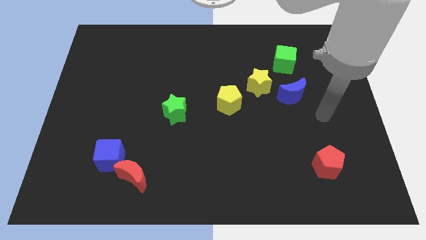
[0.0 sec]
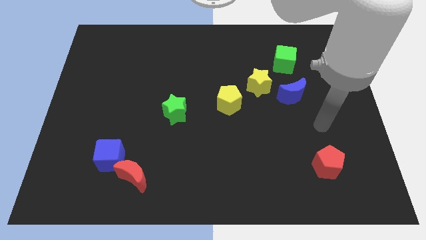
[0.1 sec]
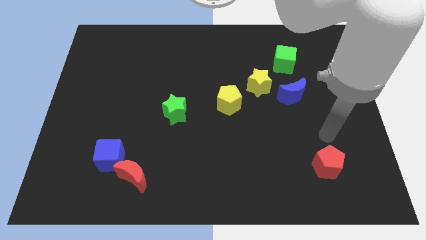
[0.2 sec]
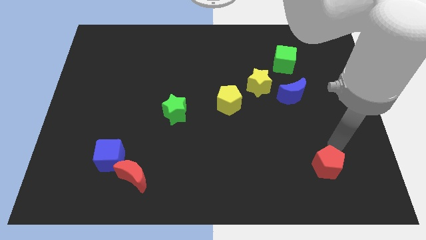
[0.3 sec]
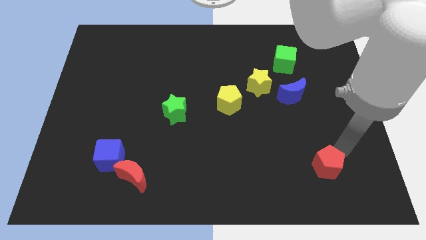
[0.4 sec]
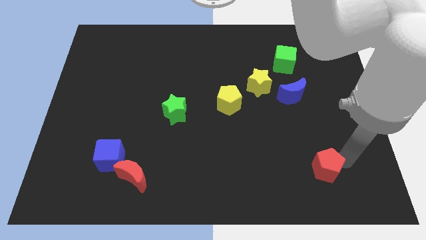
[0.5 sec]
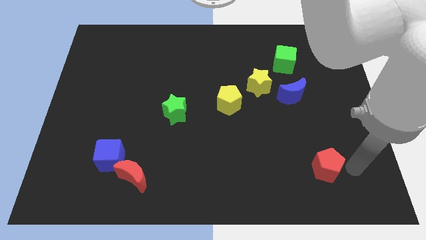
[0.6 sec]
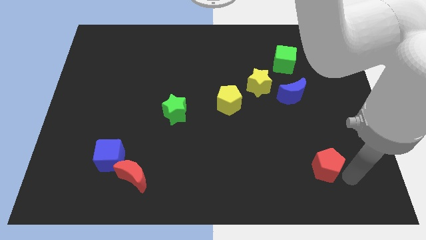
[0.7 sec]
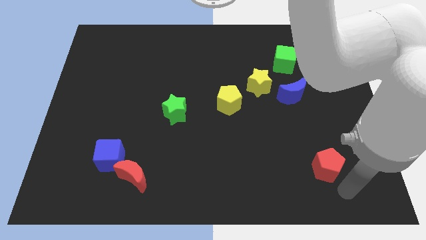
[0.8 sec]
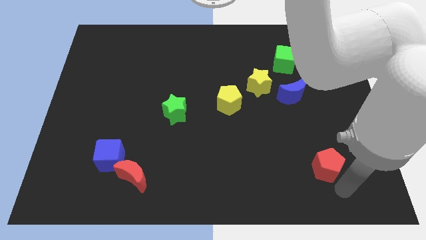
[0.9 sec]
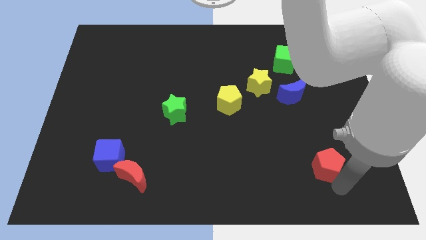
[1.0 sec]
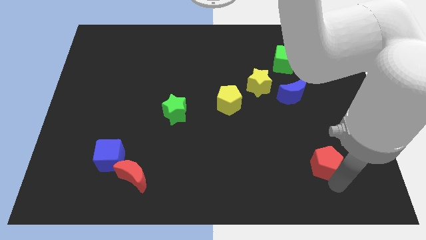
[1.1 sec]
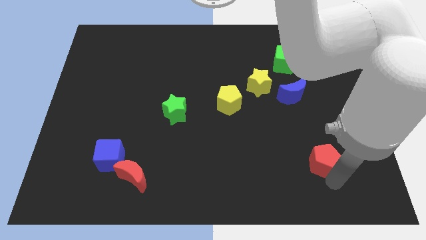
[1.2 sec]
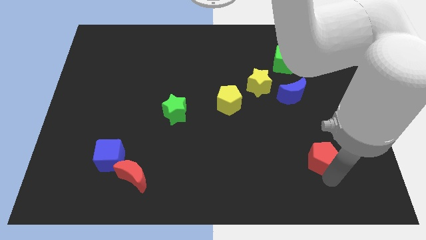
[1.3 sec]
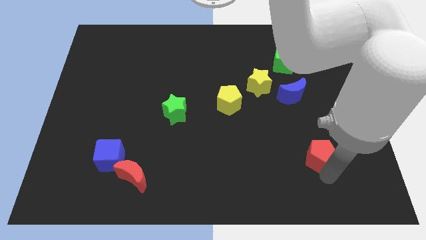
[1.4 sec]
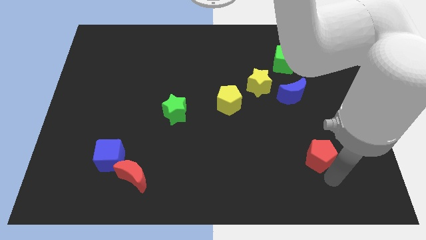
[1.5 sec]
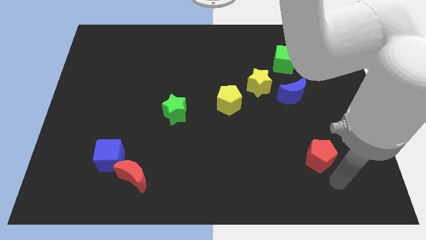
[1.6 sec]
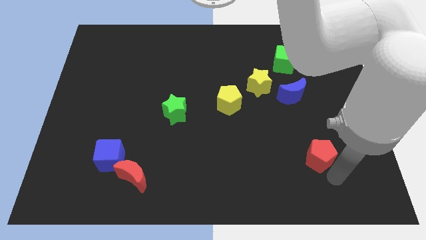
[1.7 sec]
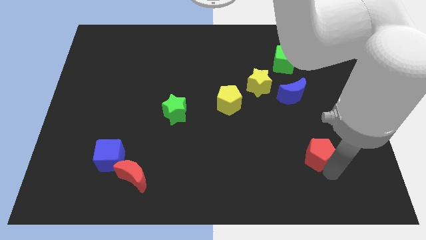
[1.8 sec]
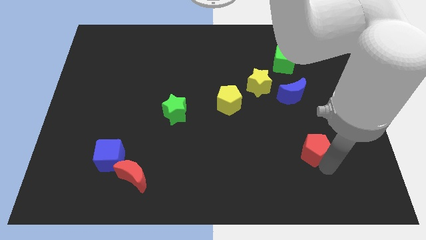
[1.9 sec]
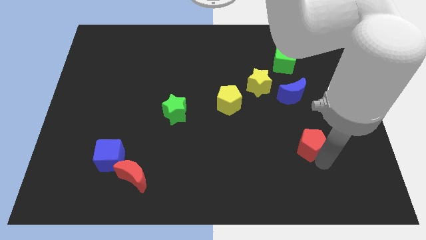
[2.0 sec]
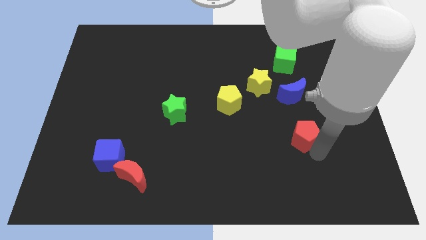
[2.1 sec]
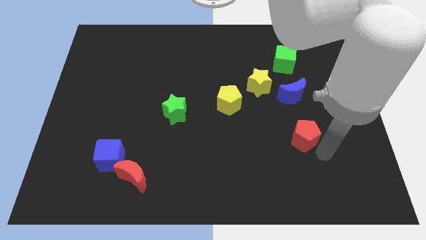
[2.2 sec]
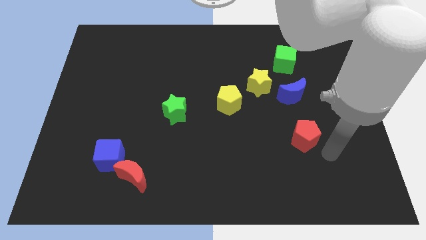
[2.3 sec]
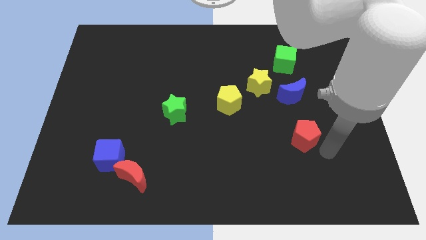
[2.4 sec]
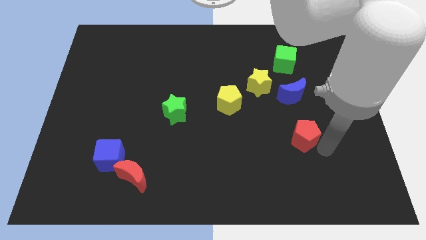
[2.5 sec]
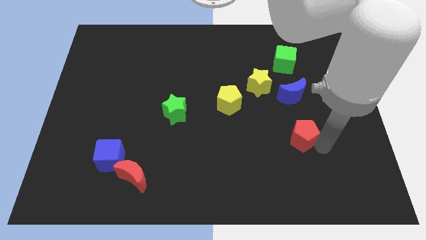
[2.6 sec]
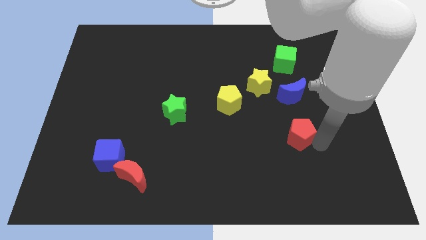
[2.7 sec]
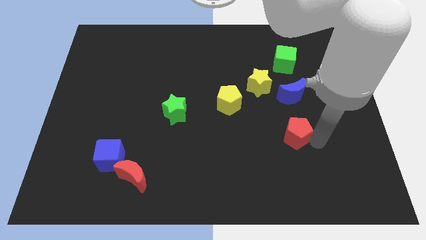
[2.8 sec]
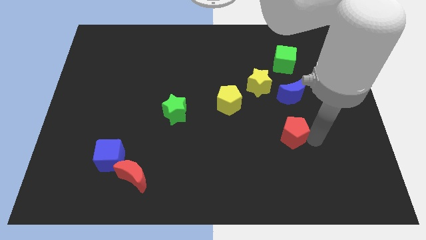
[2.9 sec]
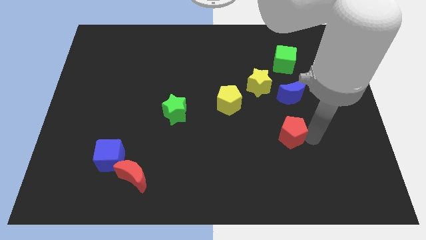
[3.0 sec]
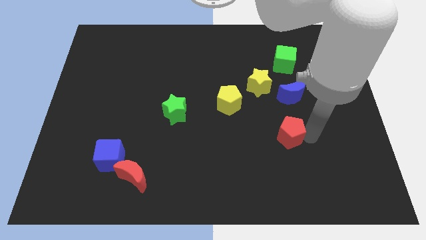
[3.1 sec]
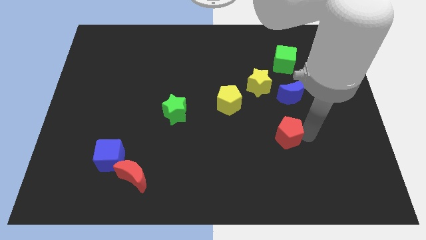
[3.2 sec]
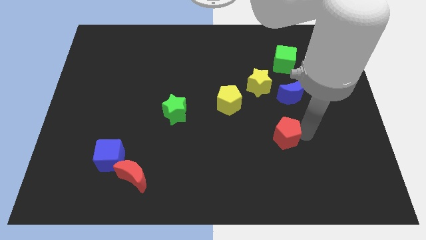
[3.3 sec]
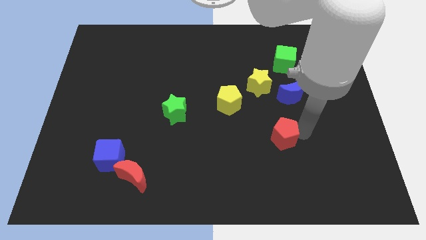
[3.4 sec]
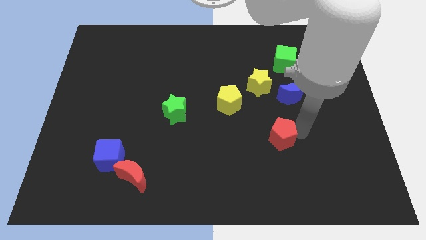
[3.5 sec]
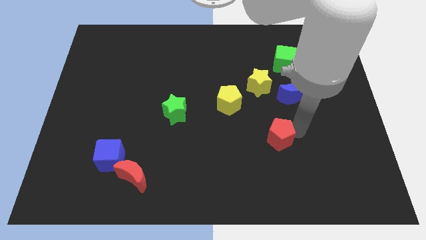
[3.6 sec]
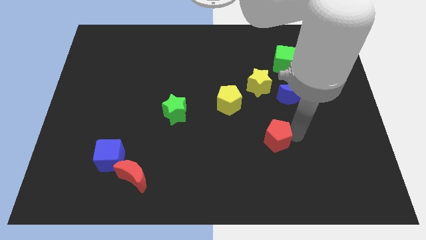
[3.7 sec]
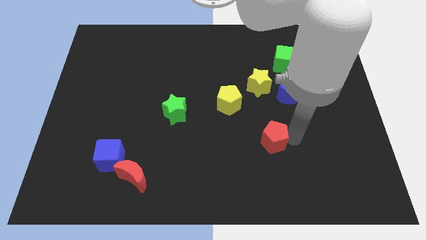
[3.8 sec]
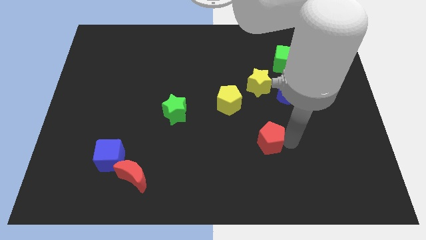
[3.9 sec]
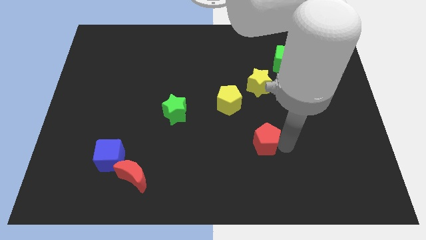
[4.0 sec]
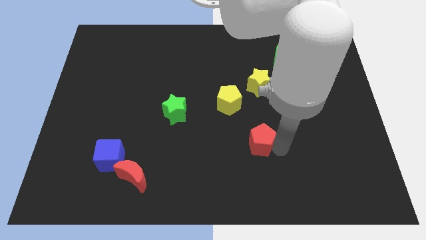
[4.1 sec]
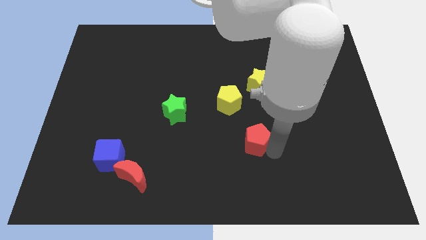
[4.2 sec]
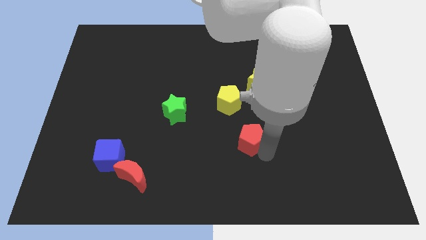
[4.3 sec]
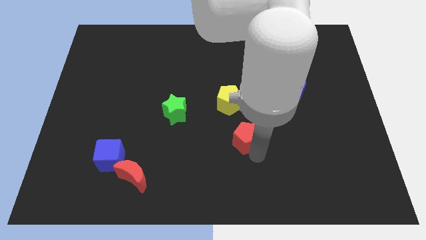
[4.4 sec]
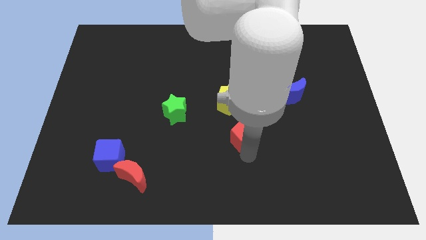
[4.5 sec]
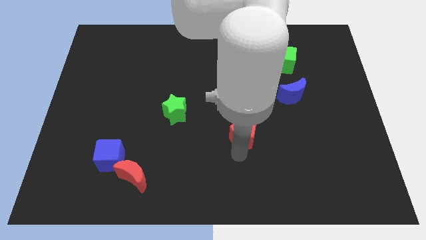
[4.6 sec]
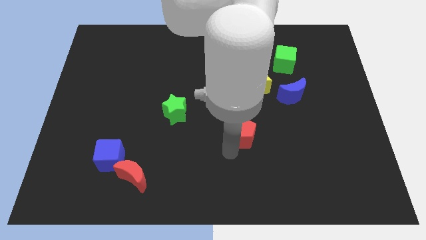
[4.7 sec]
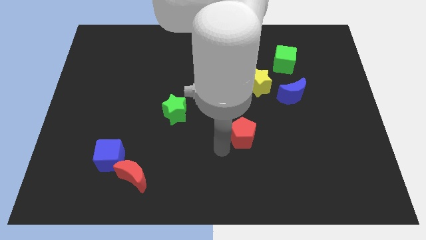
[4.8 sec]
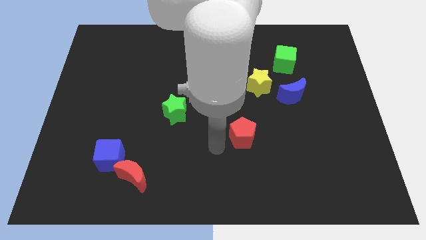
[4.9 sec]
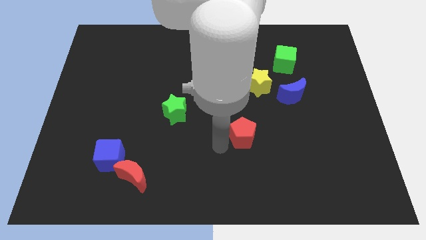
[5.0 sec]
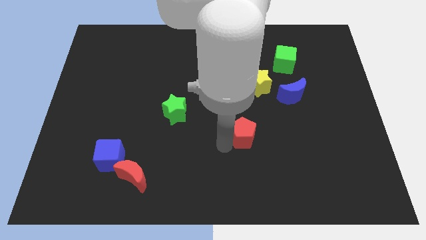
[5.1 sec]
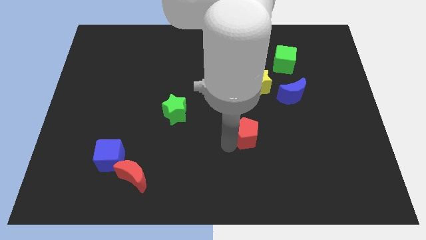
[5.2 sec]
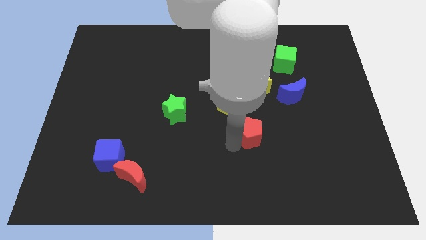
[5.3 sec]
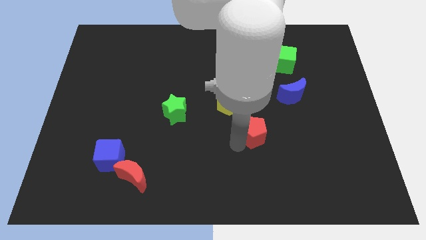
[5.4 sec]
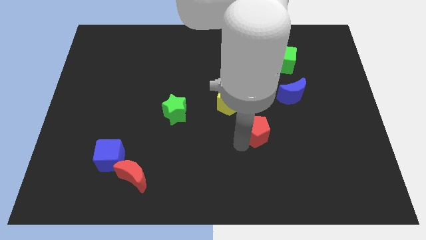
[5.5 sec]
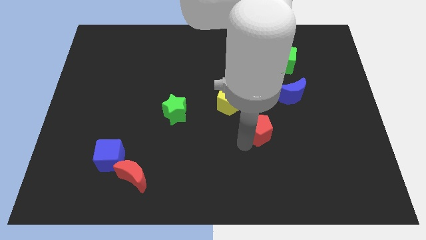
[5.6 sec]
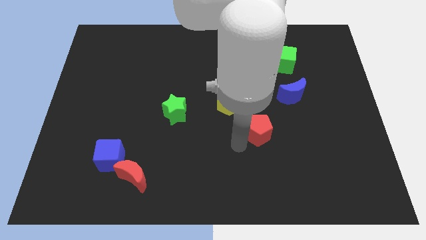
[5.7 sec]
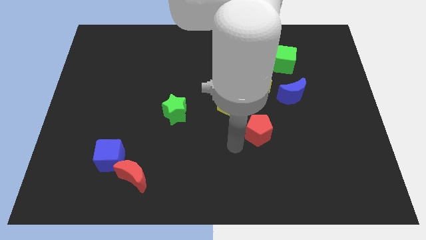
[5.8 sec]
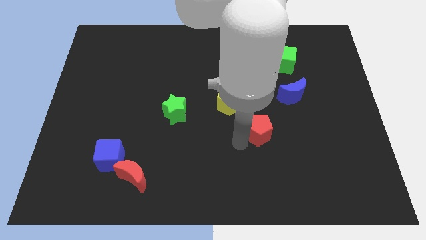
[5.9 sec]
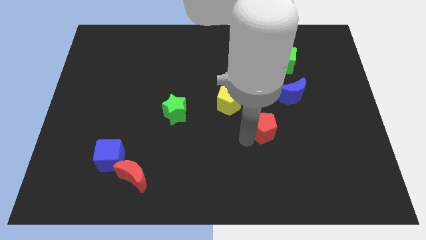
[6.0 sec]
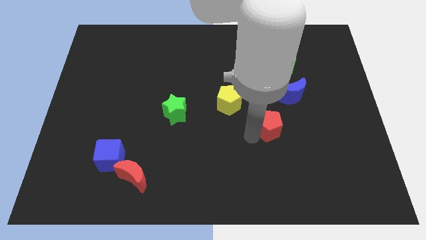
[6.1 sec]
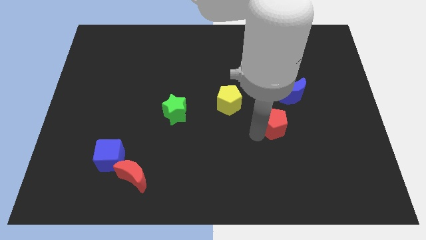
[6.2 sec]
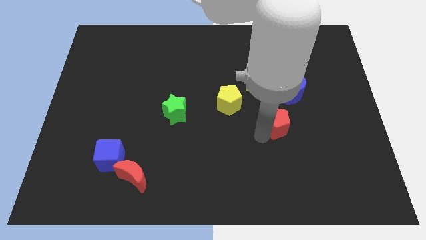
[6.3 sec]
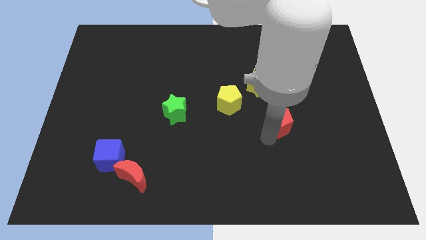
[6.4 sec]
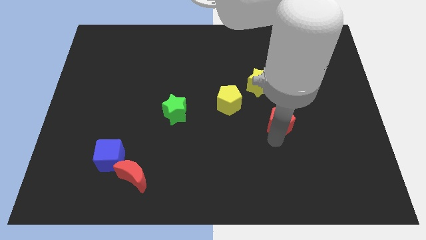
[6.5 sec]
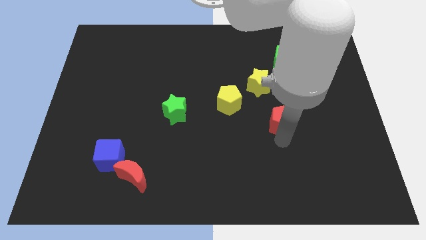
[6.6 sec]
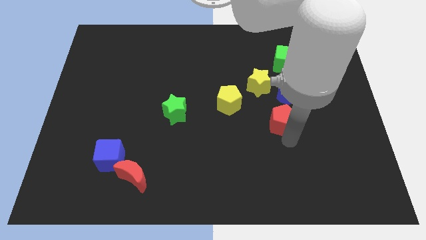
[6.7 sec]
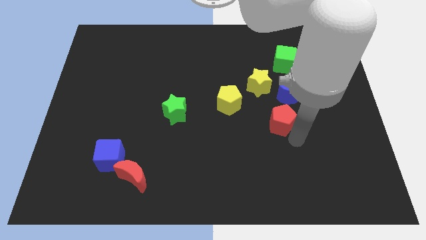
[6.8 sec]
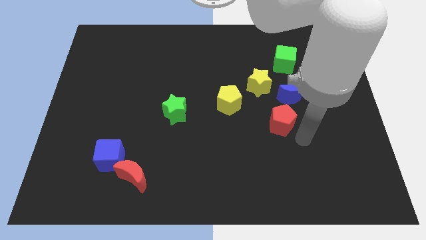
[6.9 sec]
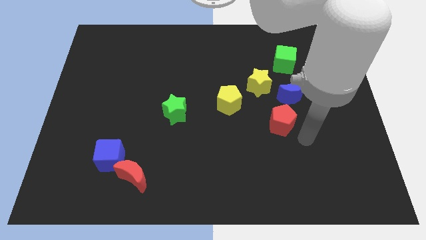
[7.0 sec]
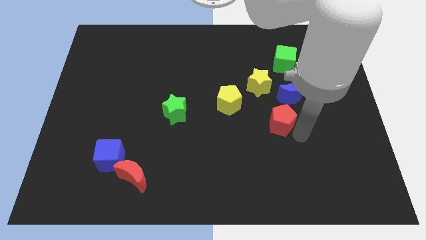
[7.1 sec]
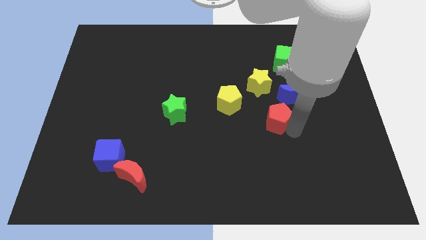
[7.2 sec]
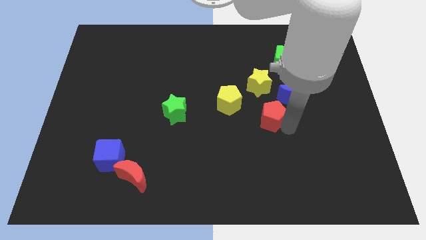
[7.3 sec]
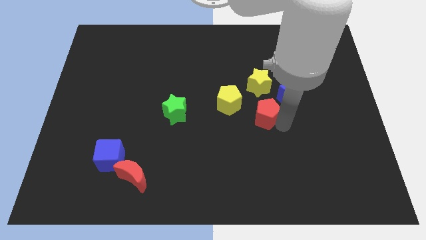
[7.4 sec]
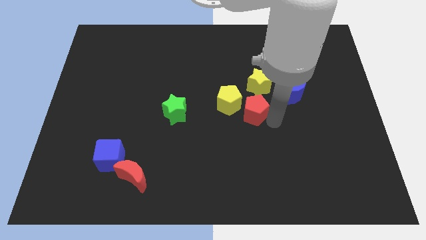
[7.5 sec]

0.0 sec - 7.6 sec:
move the red pentagon up and then to the left
